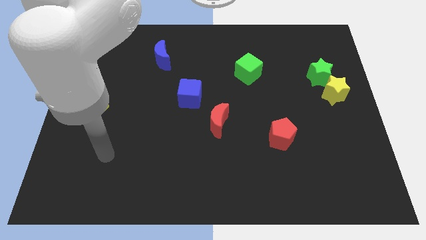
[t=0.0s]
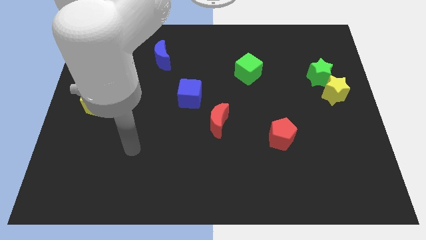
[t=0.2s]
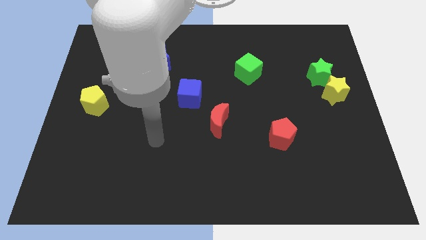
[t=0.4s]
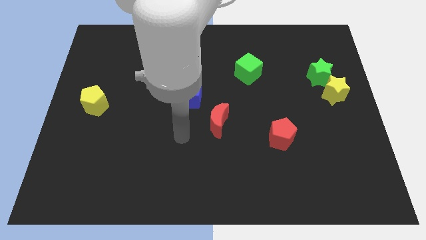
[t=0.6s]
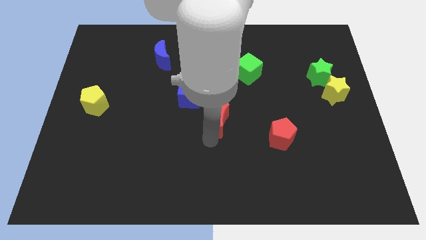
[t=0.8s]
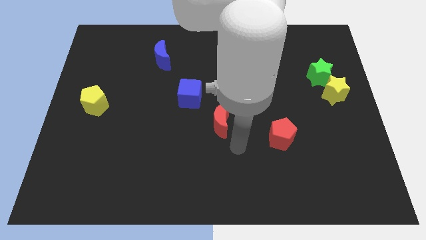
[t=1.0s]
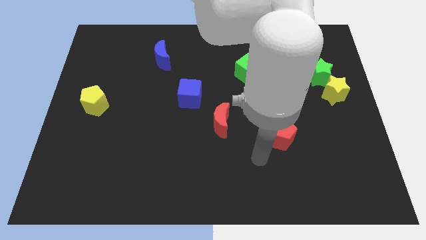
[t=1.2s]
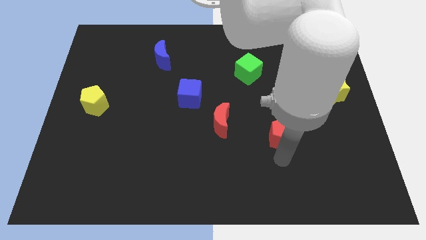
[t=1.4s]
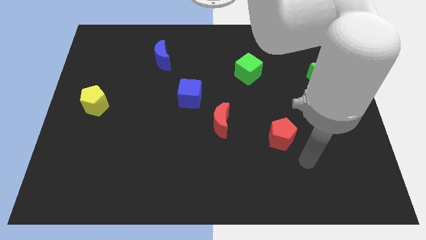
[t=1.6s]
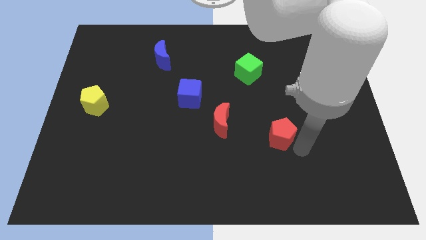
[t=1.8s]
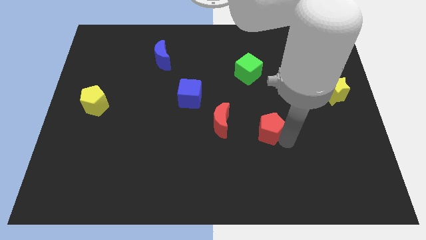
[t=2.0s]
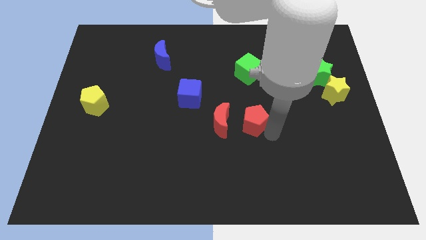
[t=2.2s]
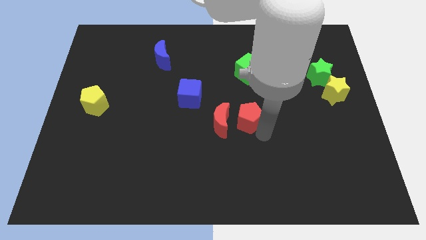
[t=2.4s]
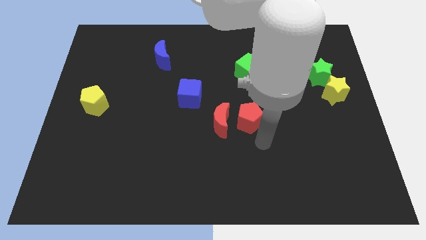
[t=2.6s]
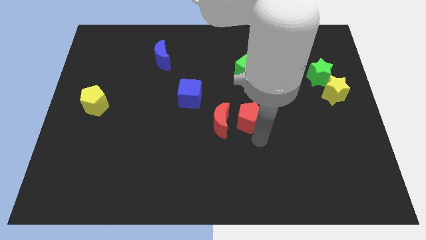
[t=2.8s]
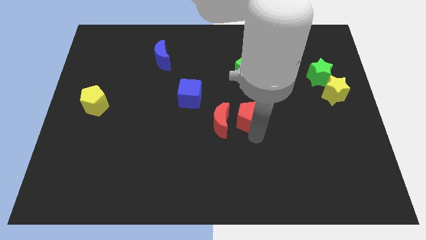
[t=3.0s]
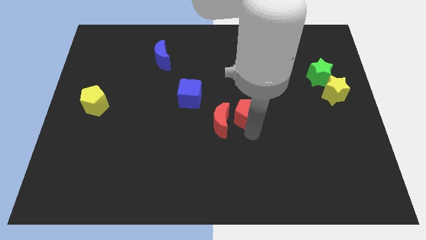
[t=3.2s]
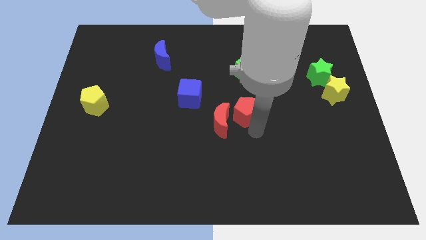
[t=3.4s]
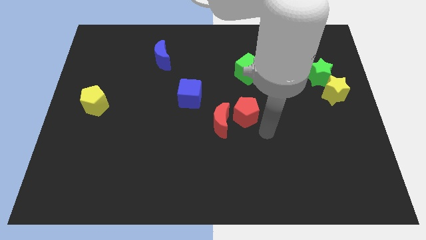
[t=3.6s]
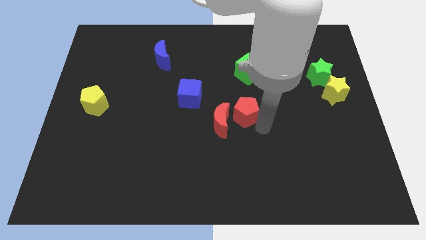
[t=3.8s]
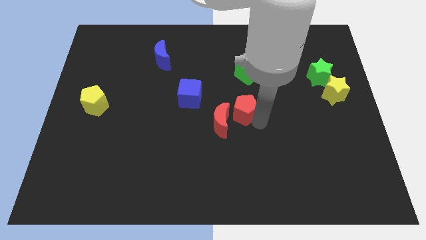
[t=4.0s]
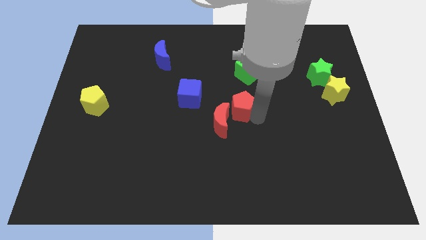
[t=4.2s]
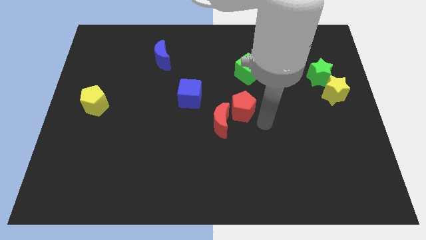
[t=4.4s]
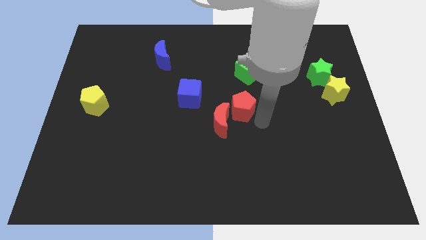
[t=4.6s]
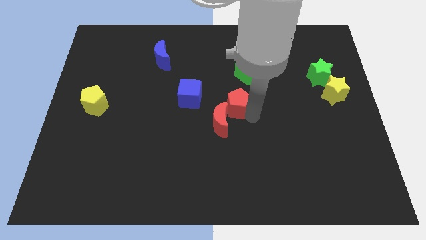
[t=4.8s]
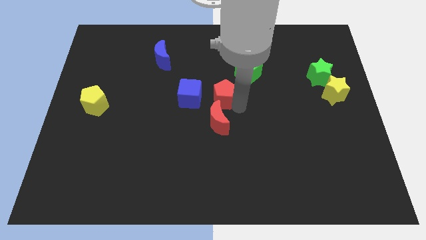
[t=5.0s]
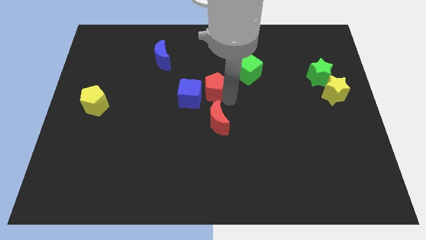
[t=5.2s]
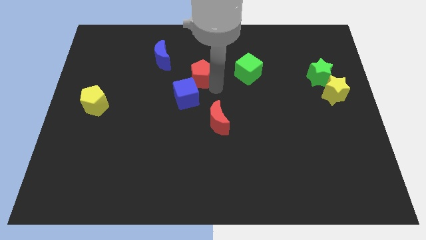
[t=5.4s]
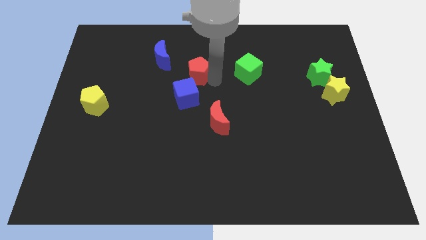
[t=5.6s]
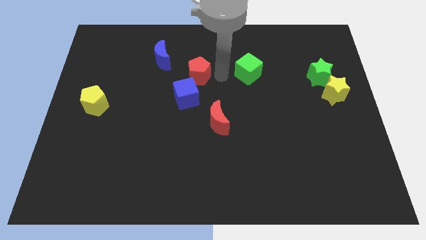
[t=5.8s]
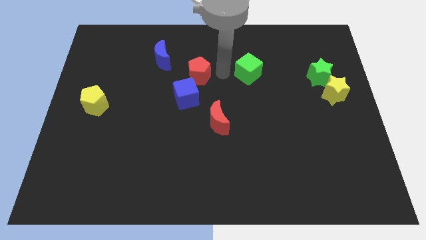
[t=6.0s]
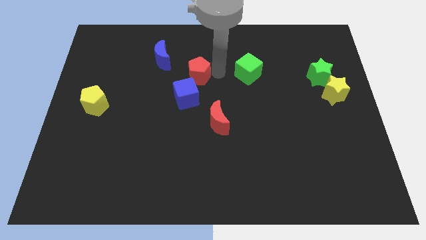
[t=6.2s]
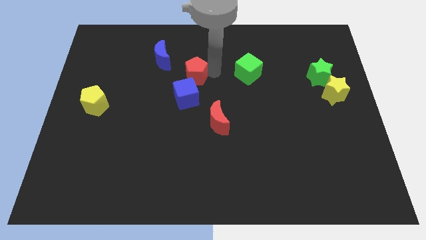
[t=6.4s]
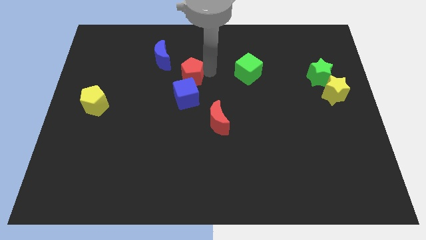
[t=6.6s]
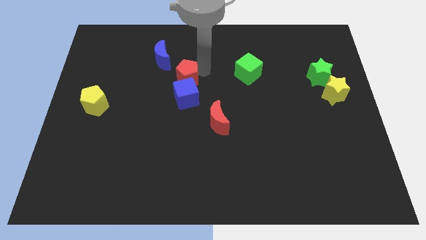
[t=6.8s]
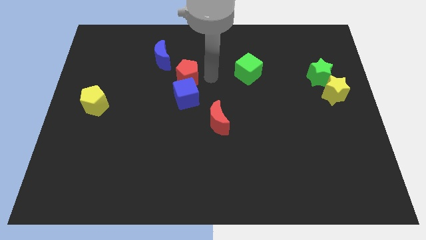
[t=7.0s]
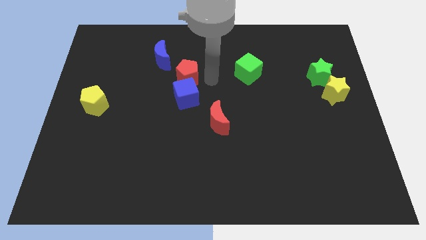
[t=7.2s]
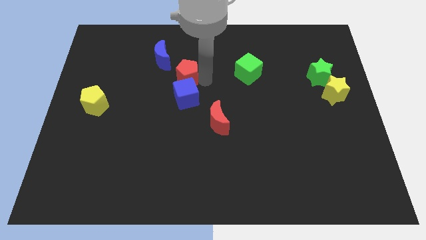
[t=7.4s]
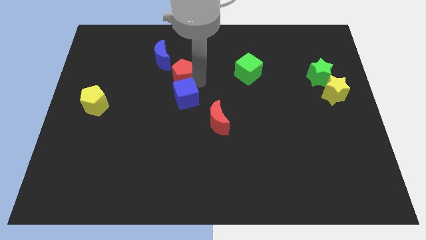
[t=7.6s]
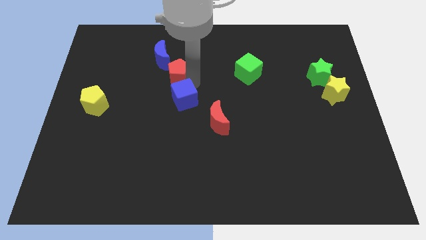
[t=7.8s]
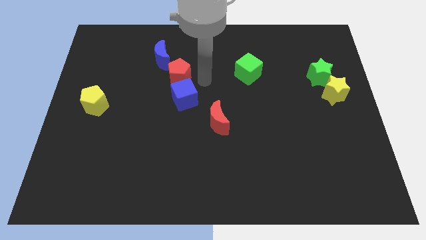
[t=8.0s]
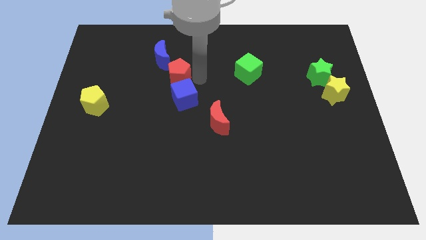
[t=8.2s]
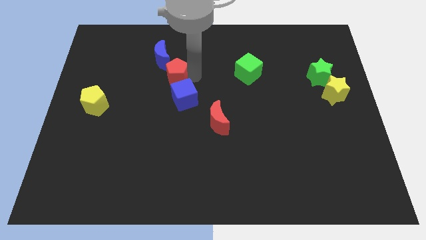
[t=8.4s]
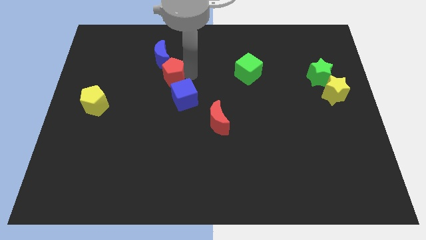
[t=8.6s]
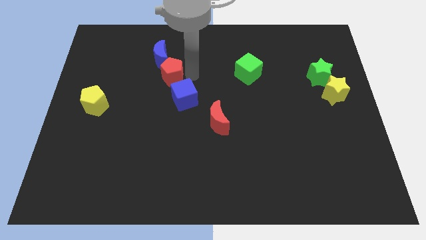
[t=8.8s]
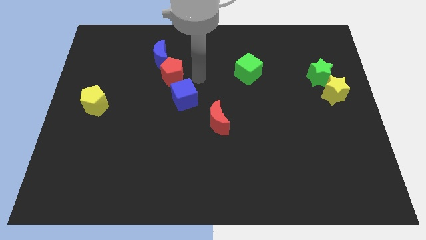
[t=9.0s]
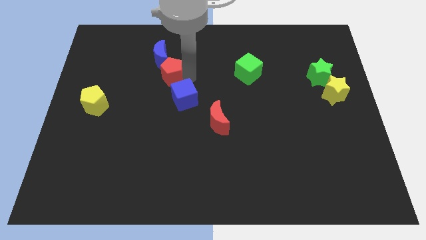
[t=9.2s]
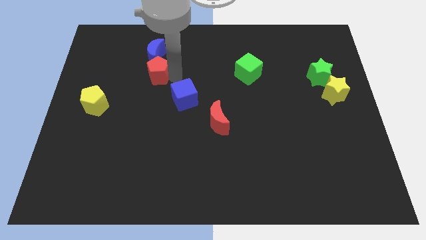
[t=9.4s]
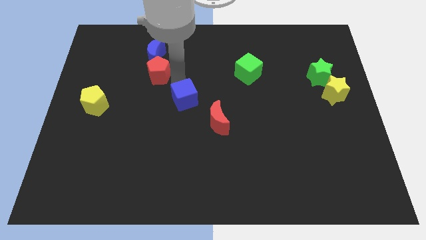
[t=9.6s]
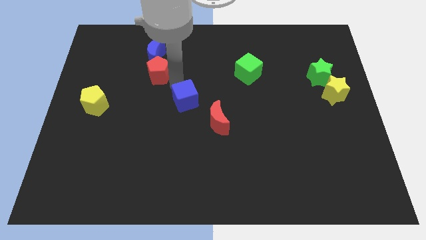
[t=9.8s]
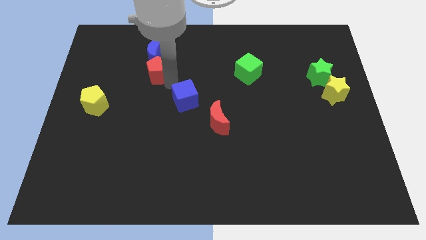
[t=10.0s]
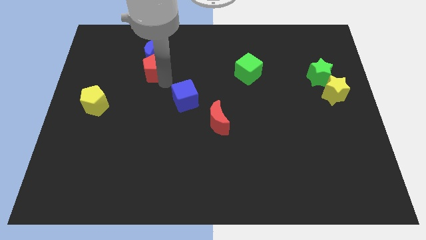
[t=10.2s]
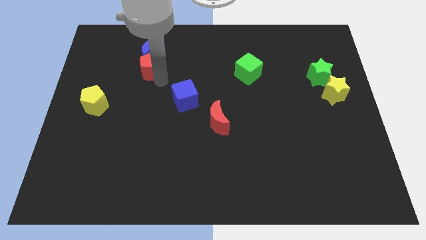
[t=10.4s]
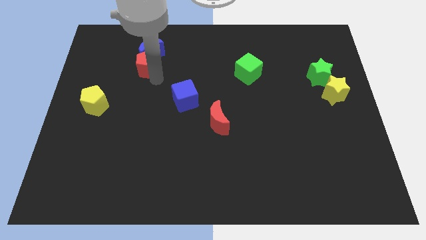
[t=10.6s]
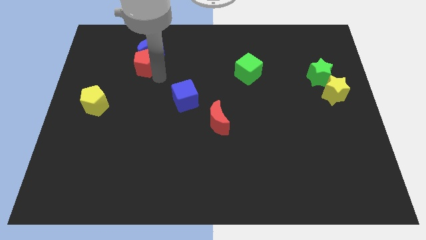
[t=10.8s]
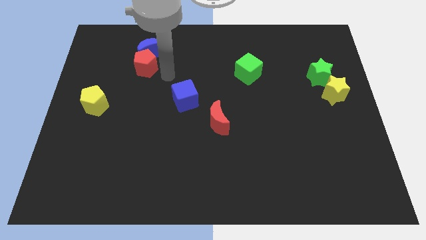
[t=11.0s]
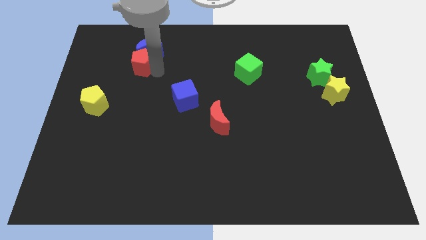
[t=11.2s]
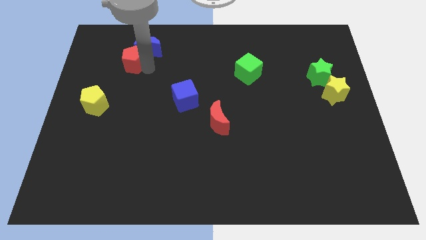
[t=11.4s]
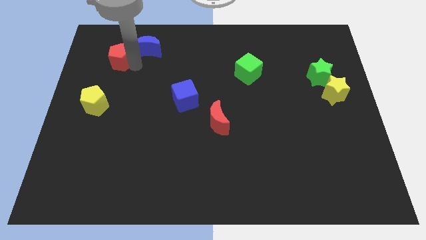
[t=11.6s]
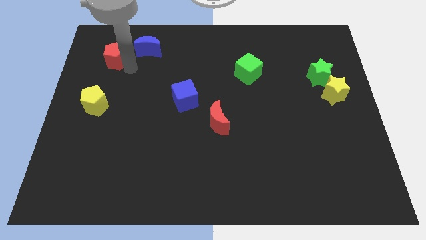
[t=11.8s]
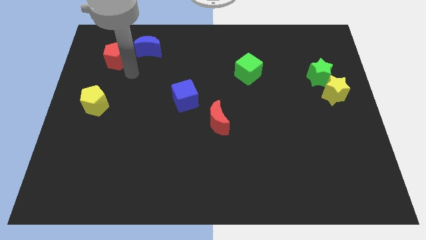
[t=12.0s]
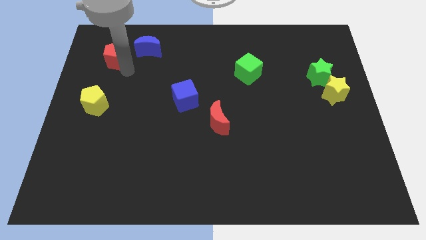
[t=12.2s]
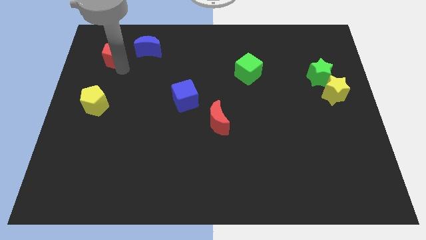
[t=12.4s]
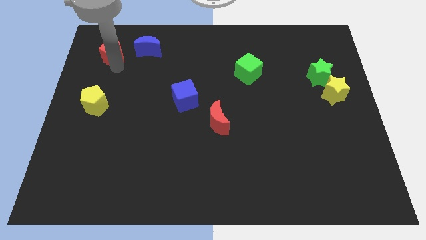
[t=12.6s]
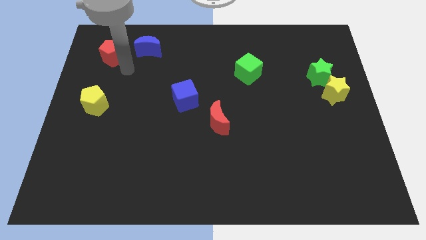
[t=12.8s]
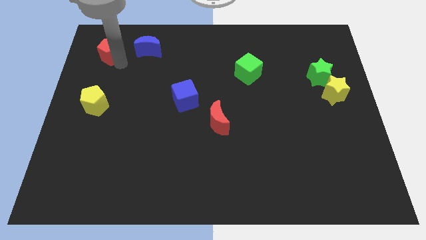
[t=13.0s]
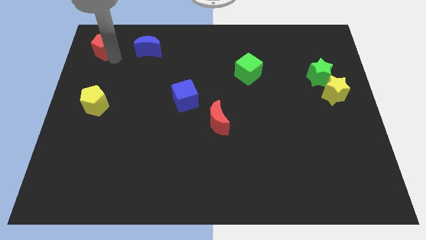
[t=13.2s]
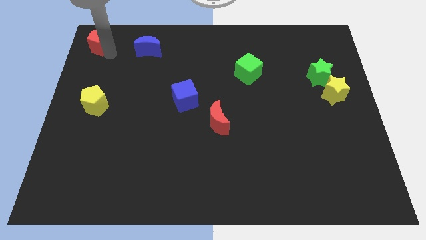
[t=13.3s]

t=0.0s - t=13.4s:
move the red pentagon to the top left
